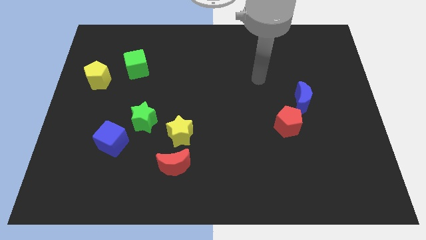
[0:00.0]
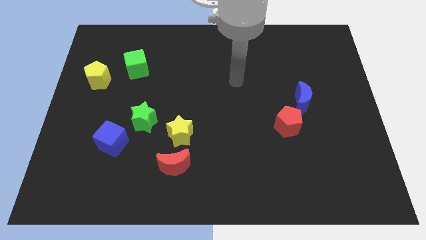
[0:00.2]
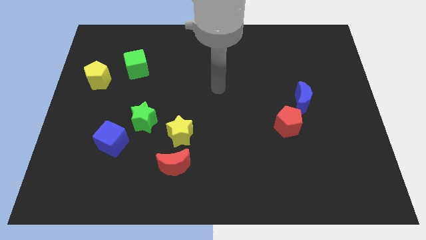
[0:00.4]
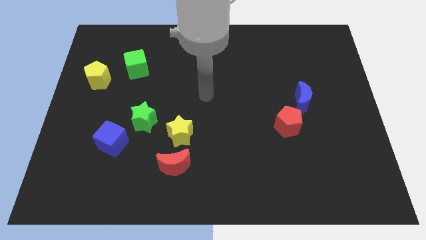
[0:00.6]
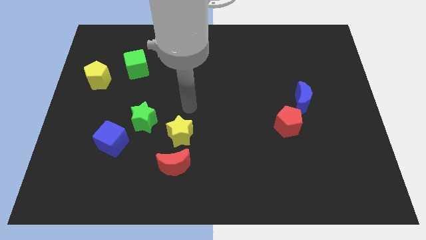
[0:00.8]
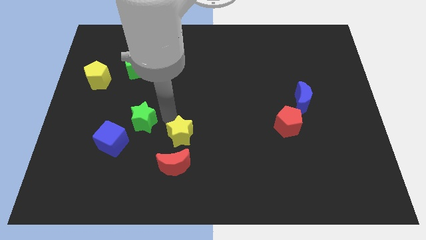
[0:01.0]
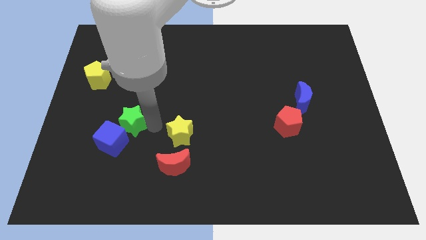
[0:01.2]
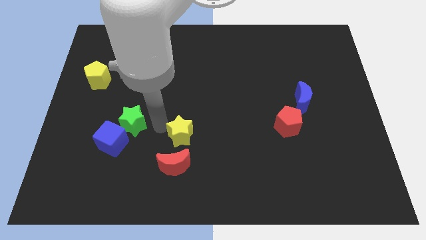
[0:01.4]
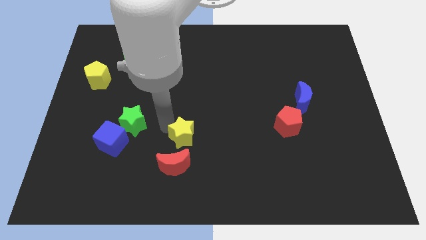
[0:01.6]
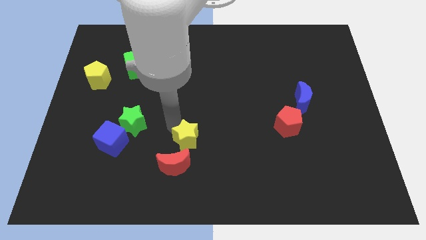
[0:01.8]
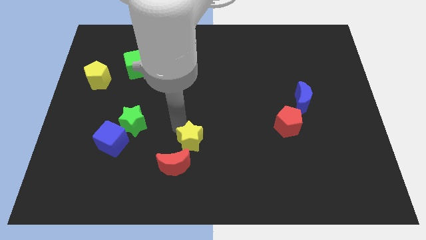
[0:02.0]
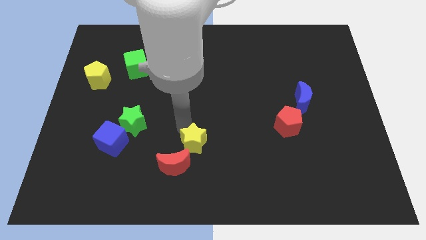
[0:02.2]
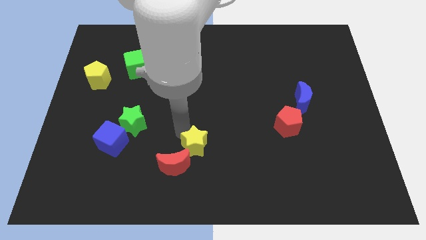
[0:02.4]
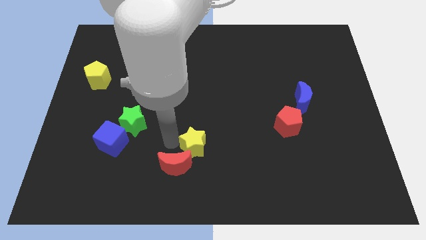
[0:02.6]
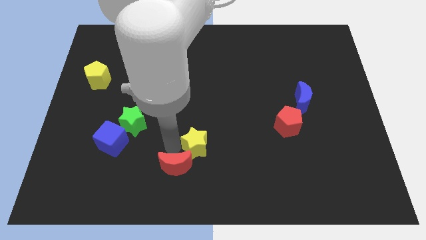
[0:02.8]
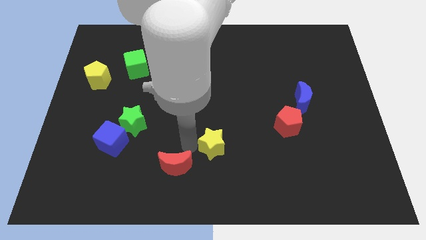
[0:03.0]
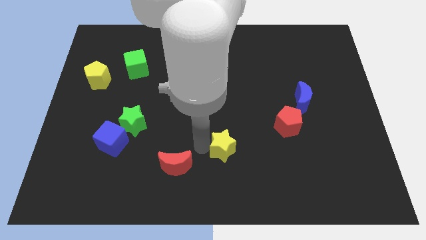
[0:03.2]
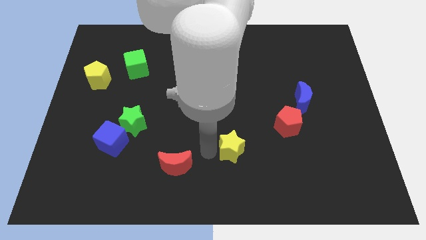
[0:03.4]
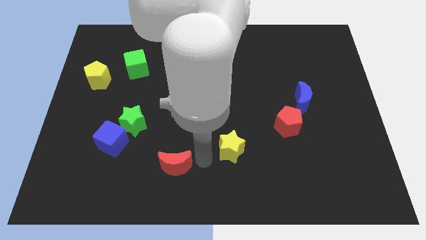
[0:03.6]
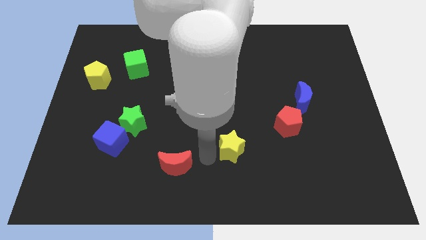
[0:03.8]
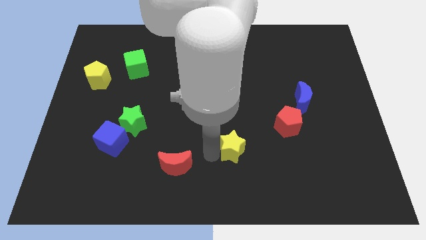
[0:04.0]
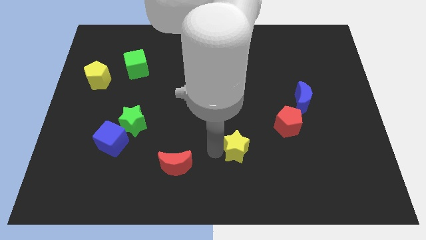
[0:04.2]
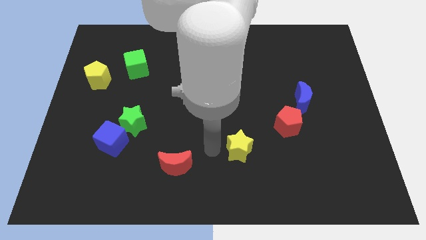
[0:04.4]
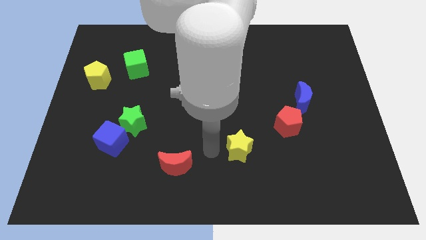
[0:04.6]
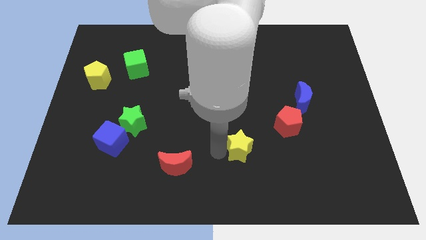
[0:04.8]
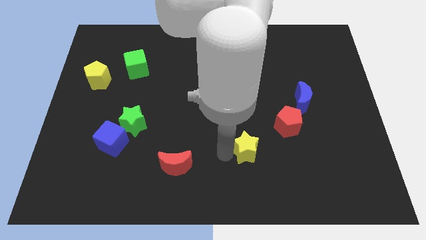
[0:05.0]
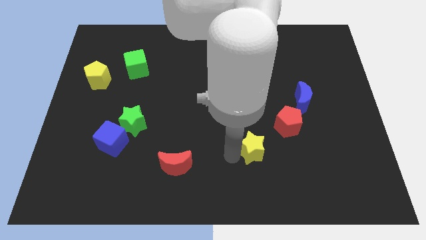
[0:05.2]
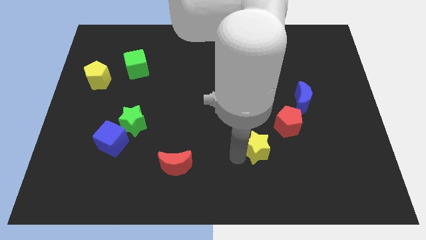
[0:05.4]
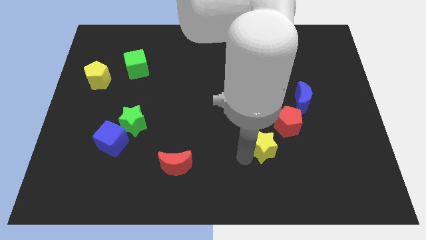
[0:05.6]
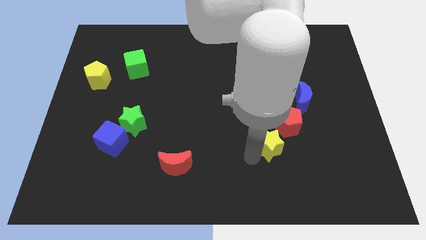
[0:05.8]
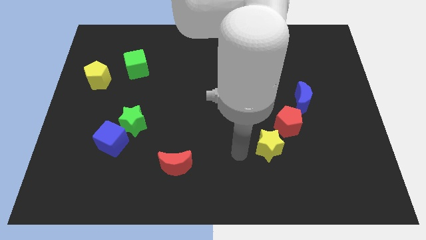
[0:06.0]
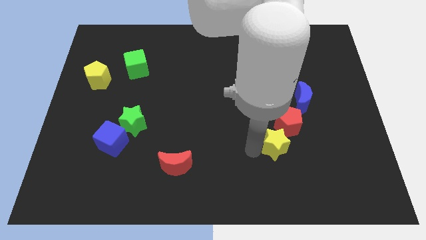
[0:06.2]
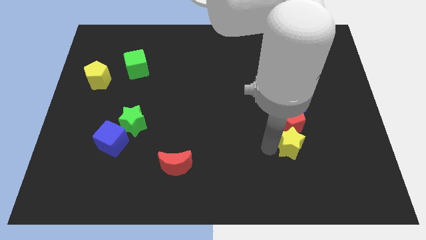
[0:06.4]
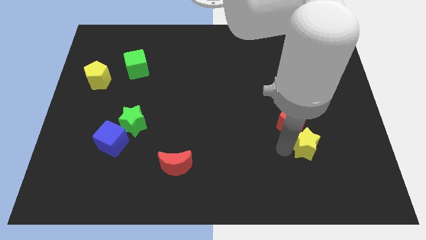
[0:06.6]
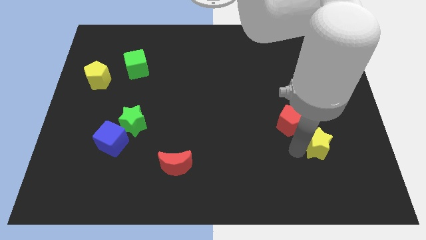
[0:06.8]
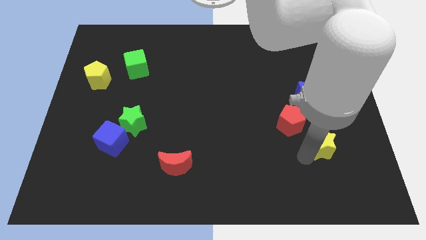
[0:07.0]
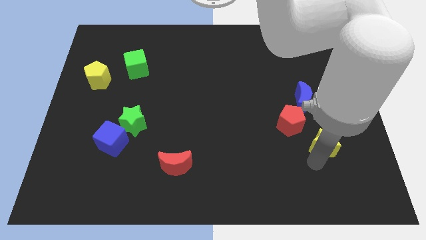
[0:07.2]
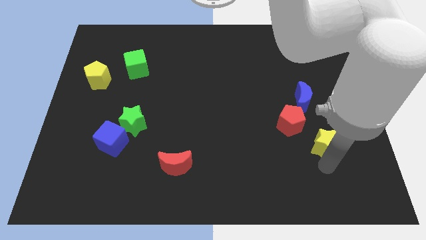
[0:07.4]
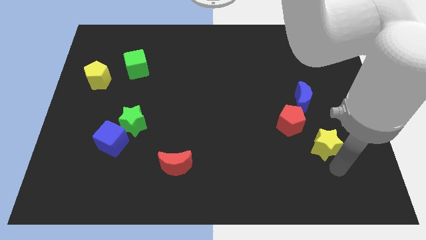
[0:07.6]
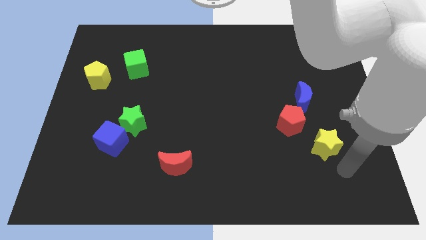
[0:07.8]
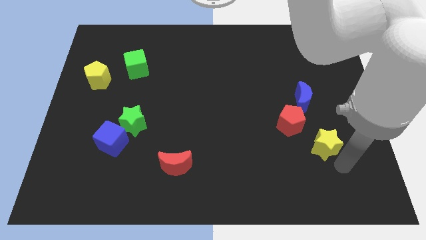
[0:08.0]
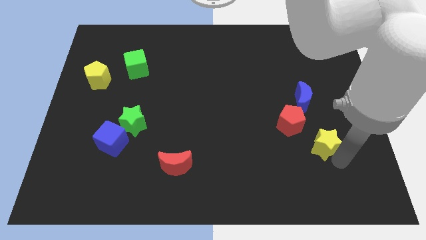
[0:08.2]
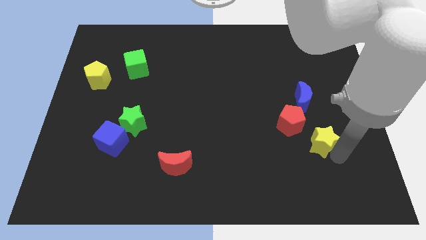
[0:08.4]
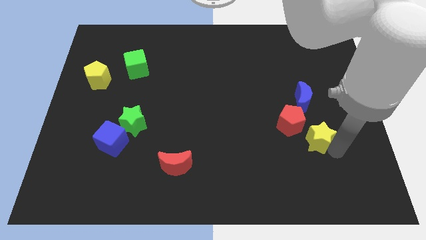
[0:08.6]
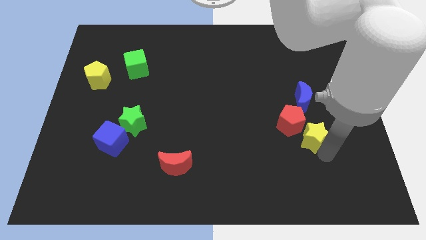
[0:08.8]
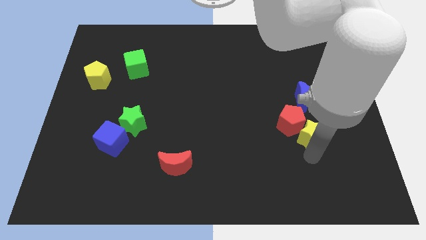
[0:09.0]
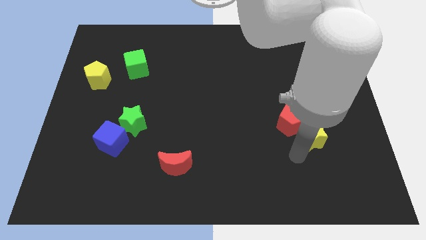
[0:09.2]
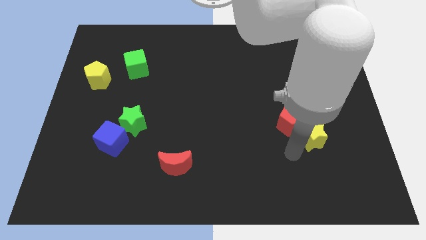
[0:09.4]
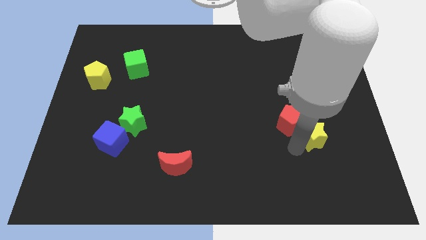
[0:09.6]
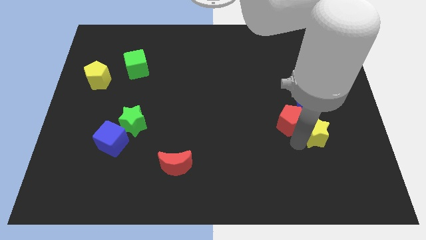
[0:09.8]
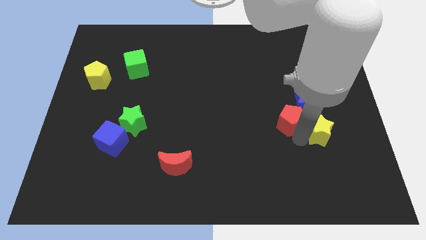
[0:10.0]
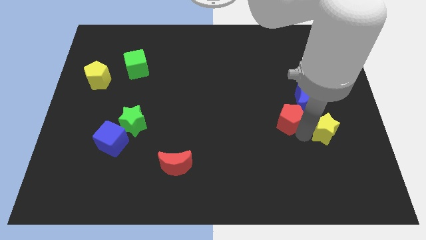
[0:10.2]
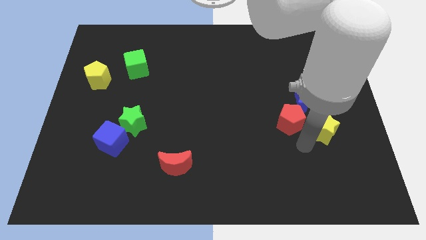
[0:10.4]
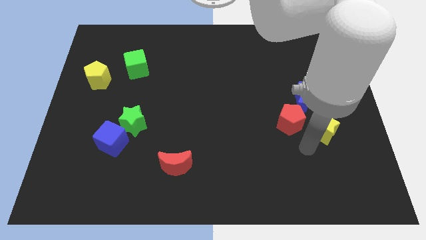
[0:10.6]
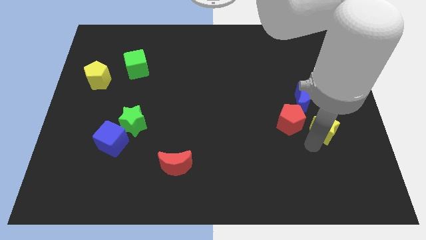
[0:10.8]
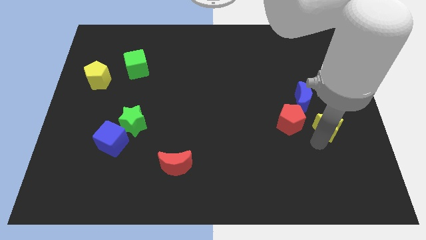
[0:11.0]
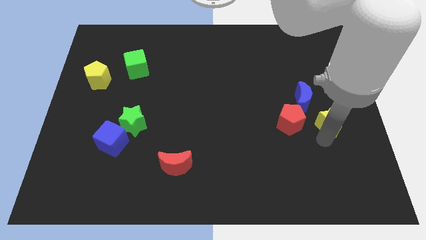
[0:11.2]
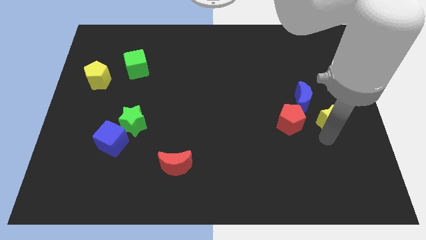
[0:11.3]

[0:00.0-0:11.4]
put the yellow star to the right side
